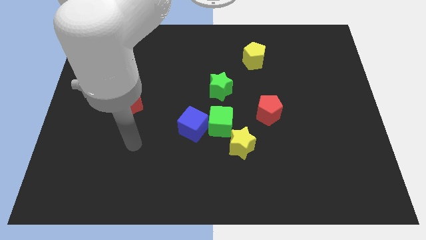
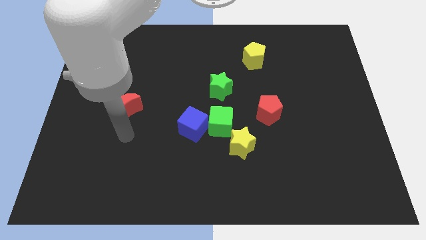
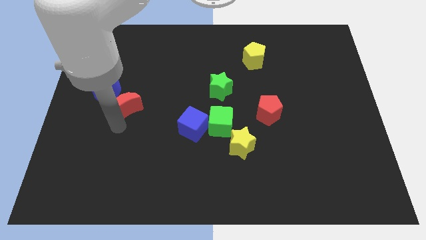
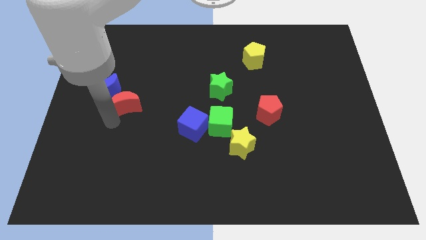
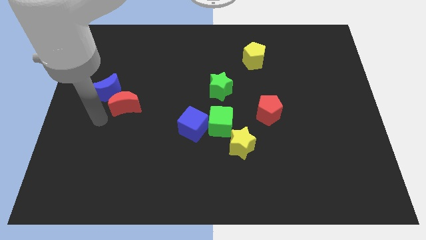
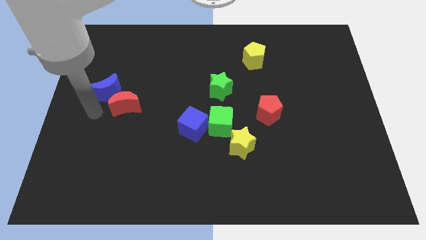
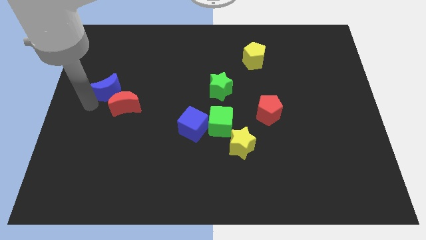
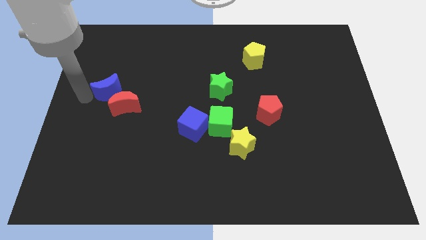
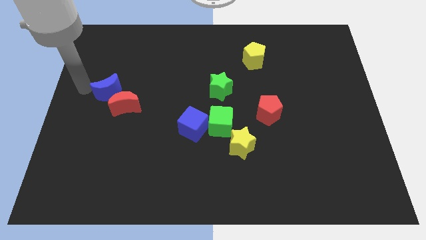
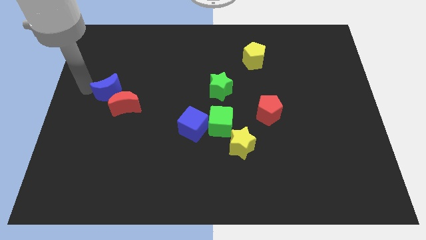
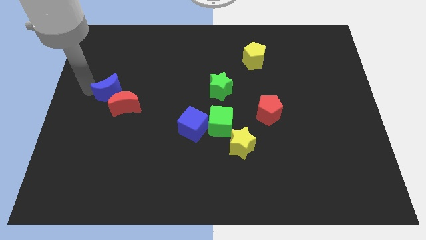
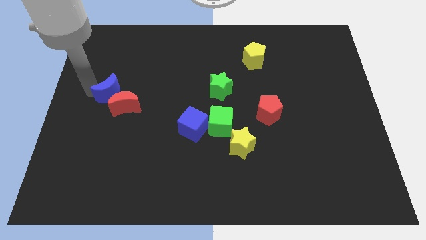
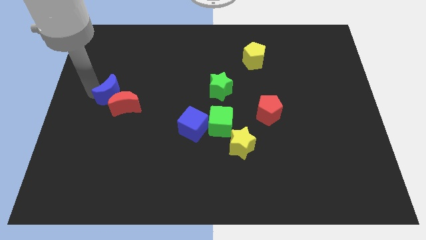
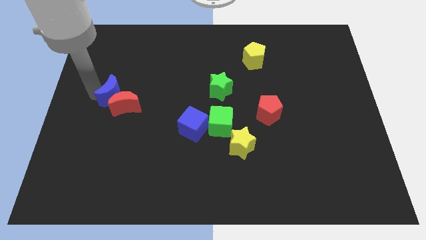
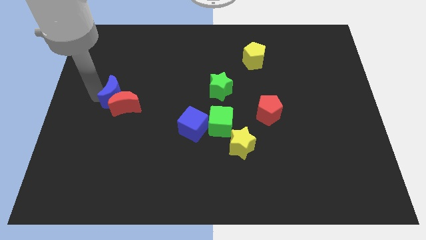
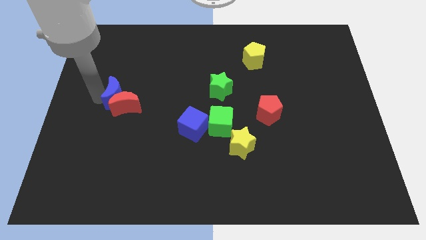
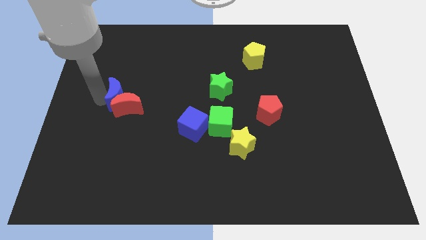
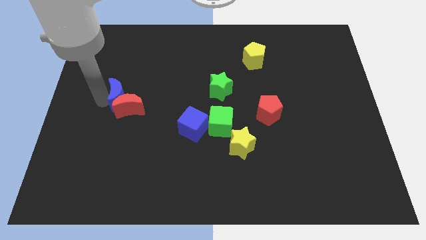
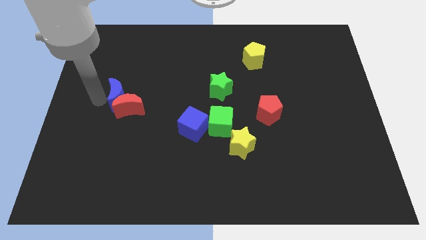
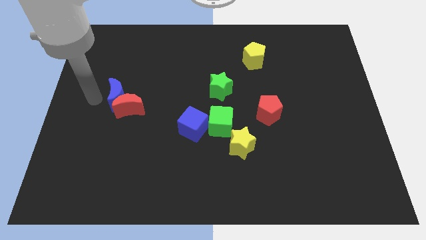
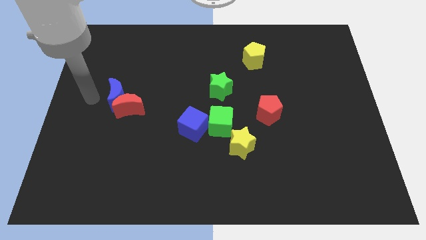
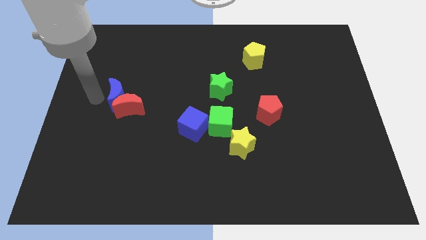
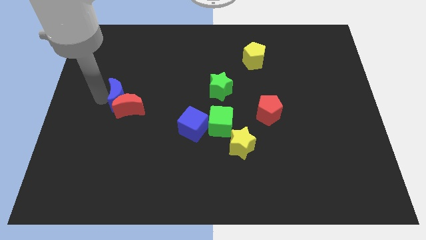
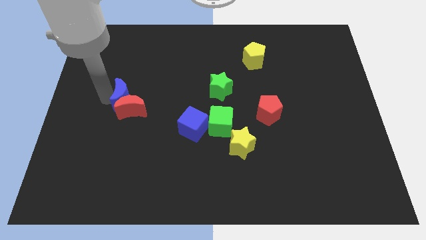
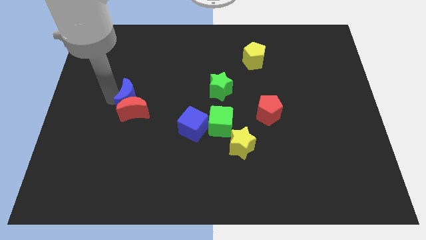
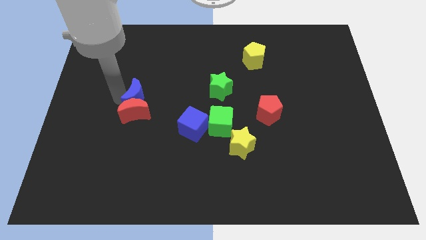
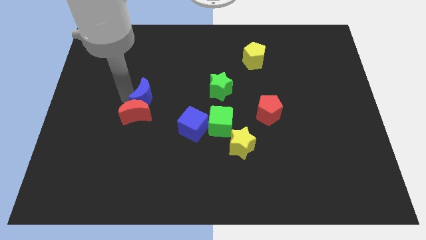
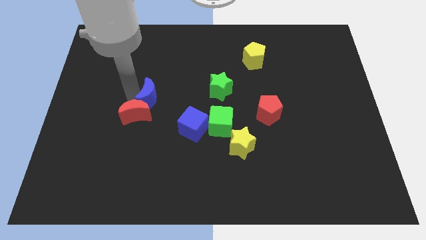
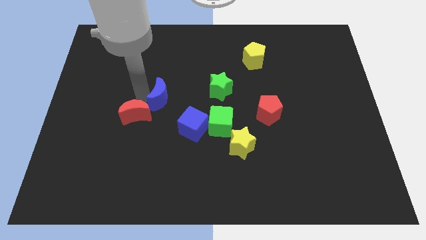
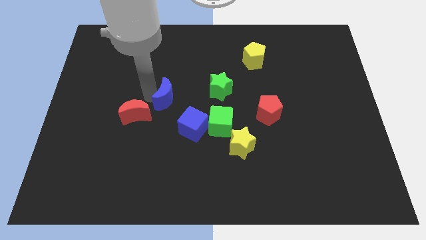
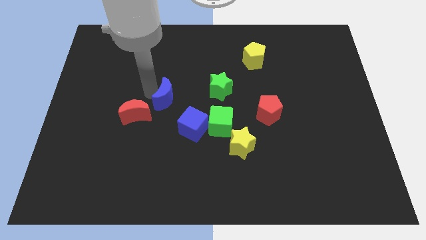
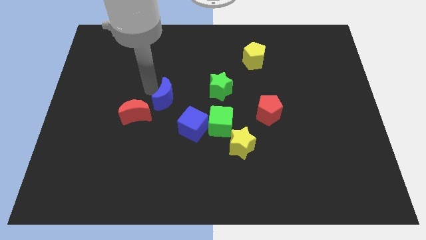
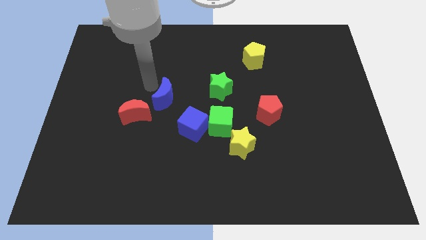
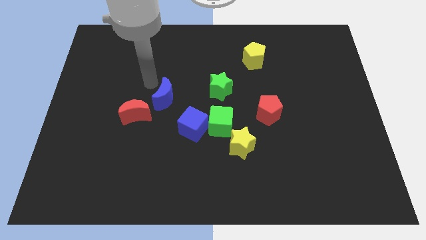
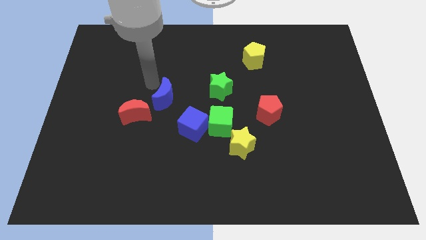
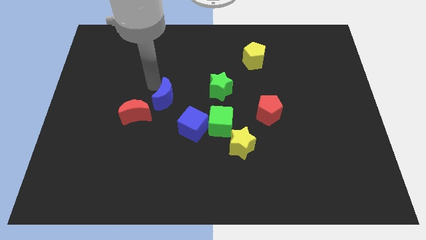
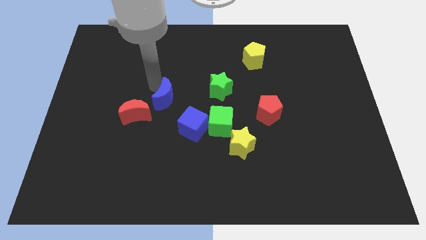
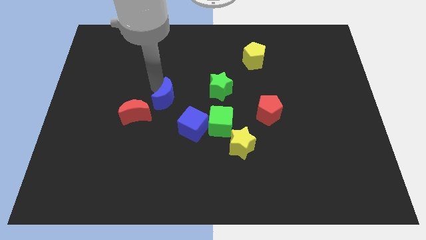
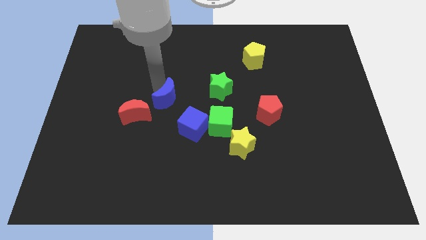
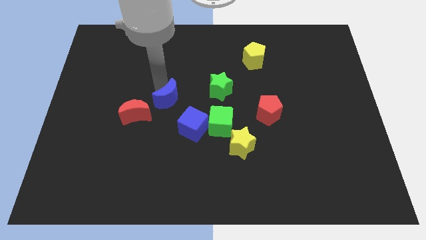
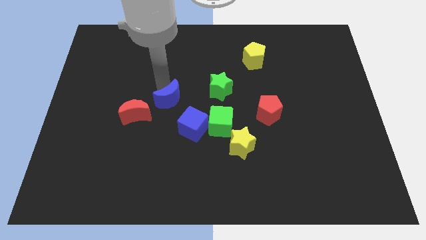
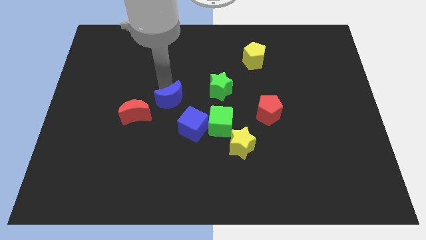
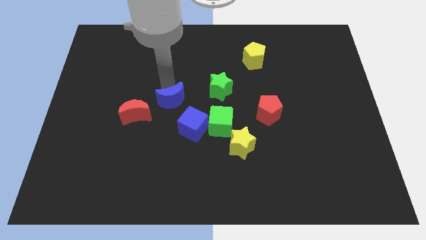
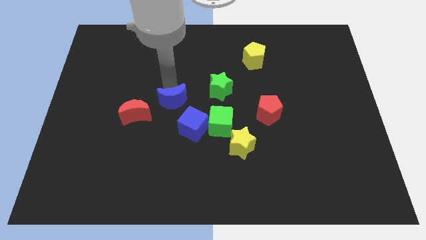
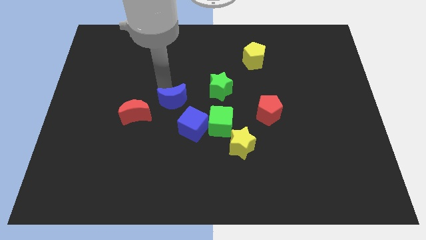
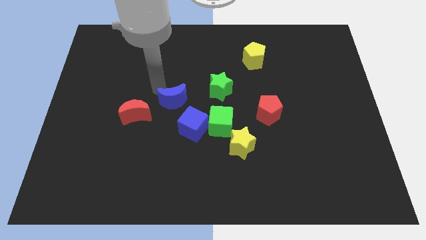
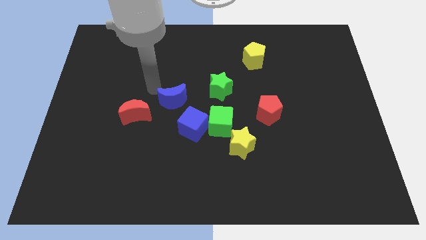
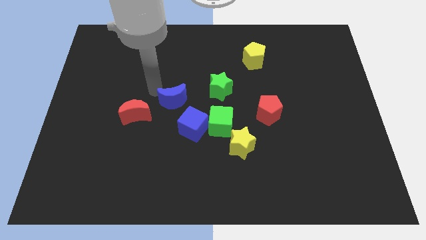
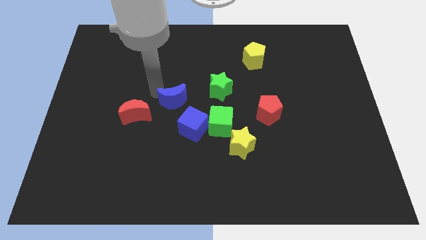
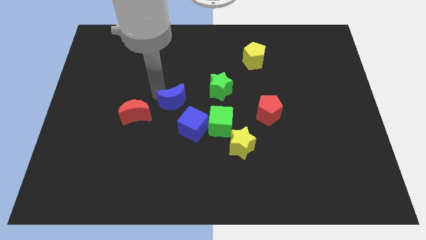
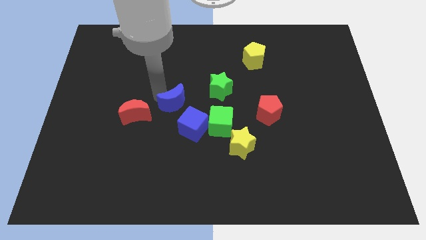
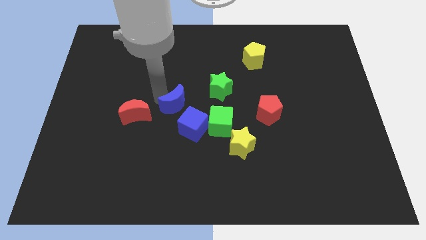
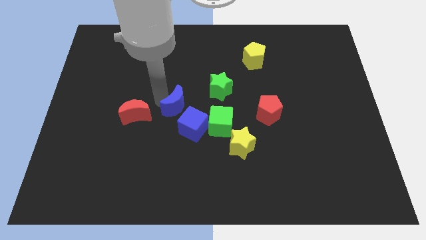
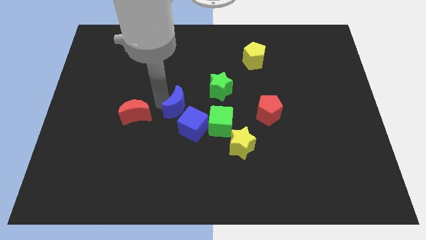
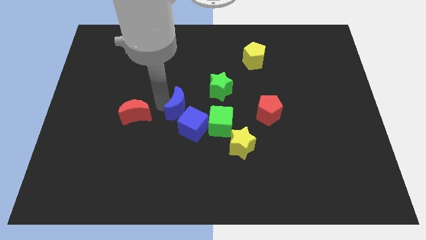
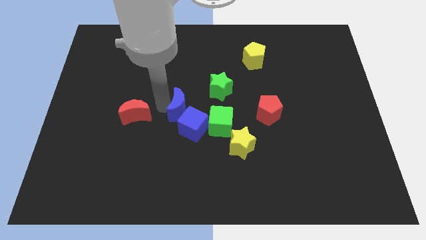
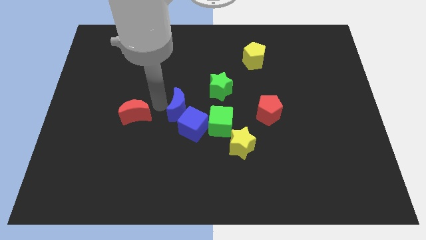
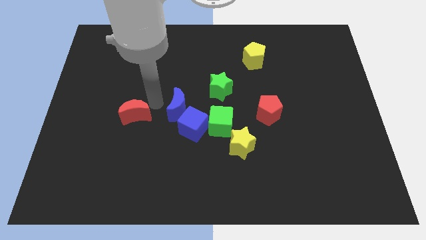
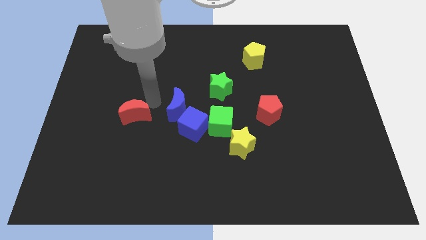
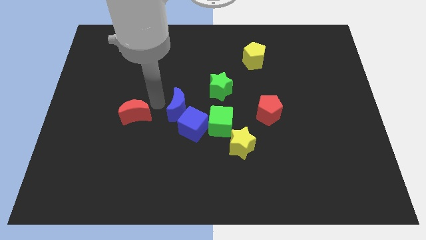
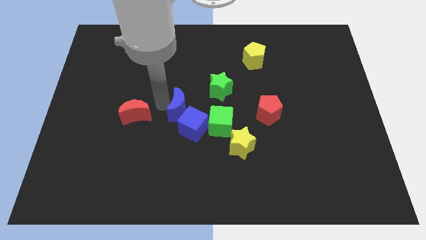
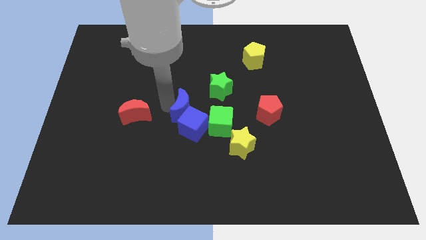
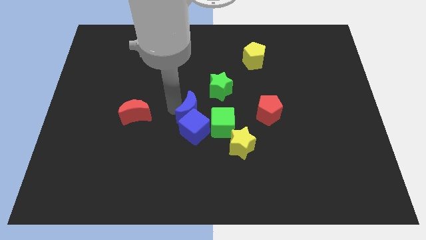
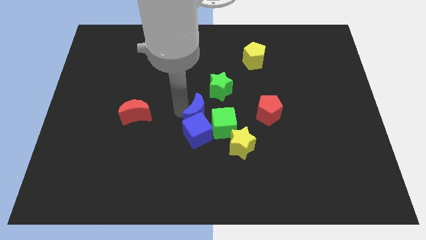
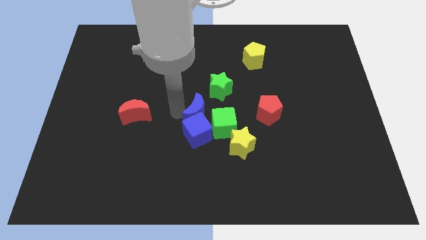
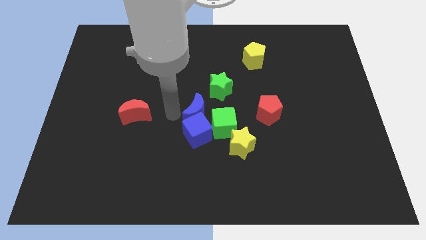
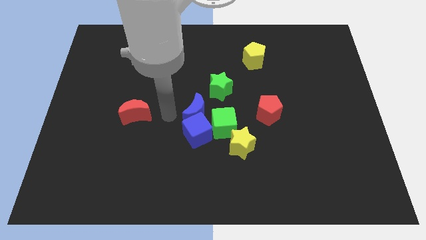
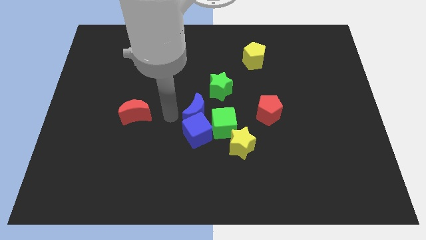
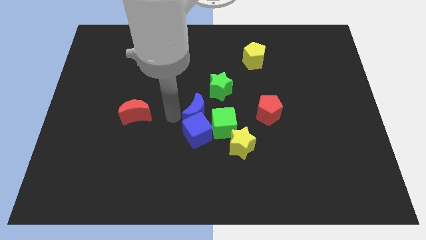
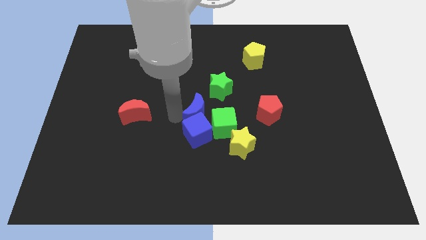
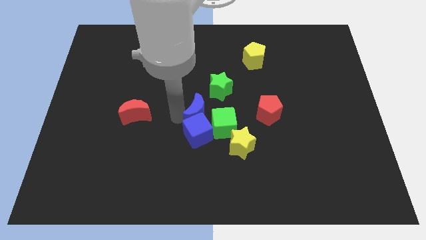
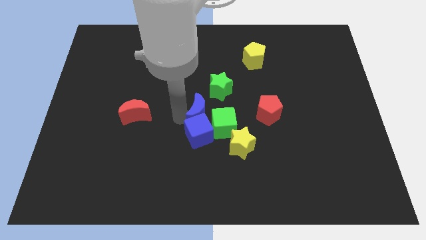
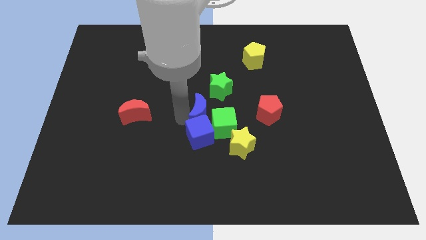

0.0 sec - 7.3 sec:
push the blue moon close to the green cube
